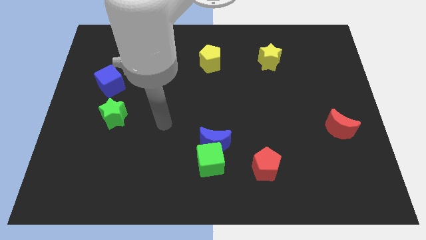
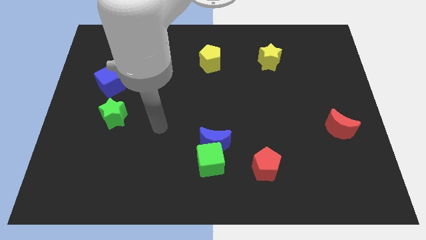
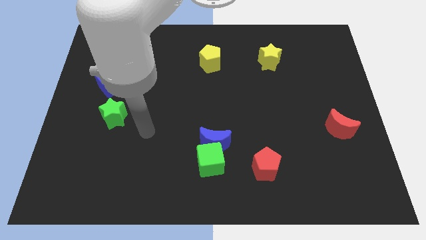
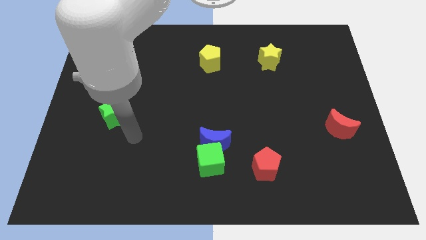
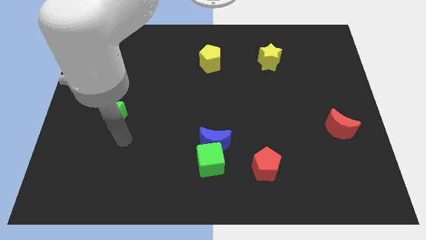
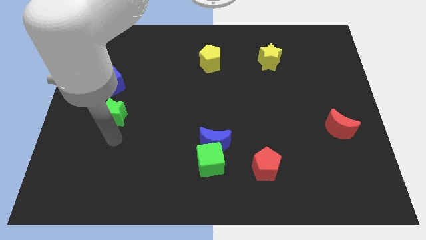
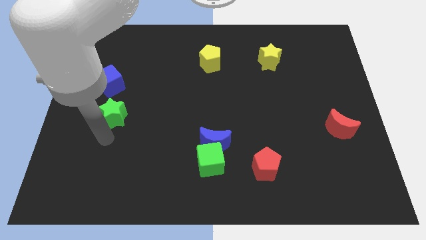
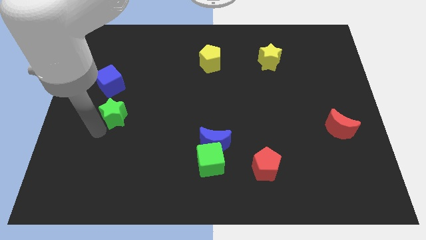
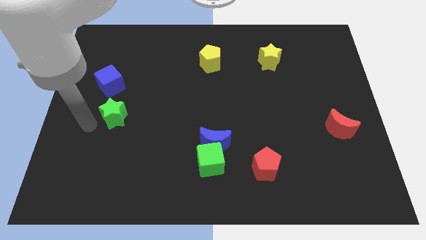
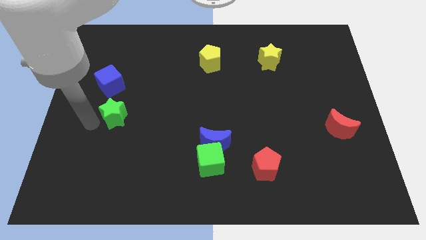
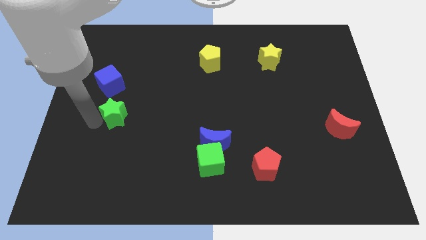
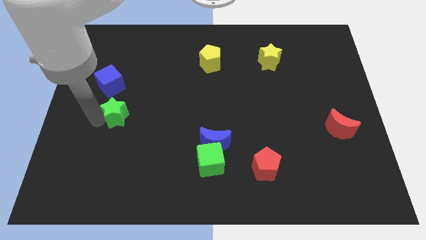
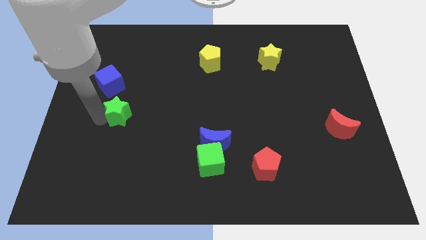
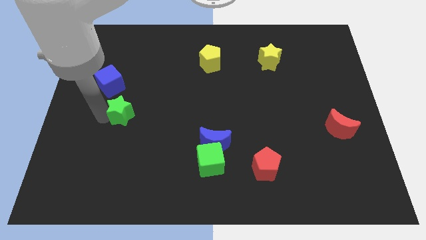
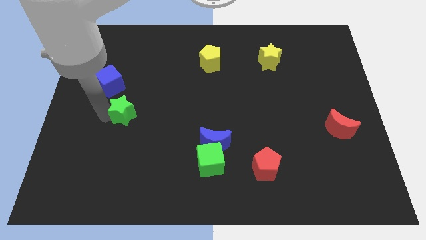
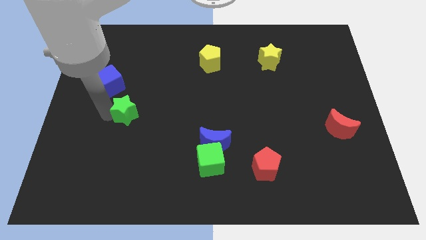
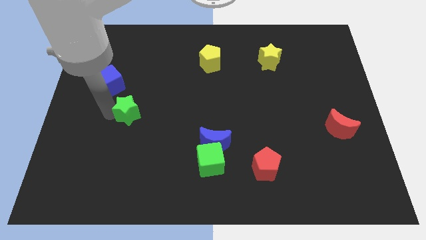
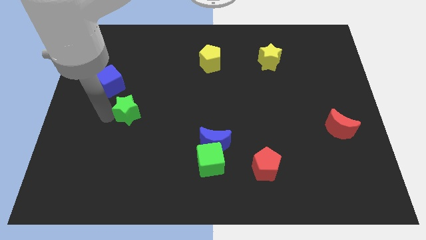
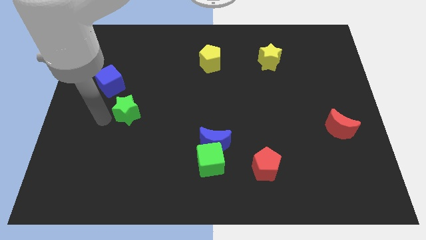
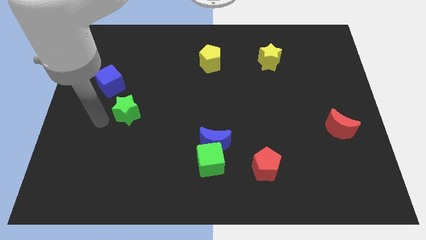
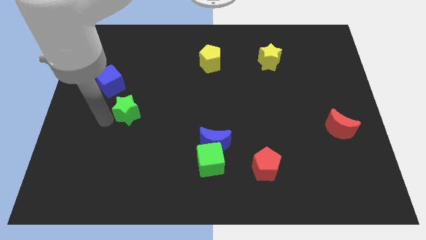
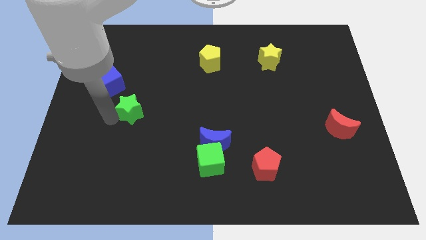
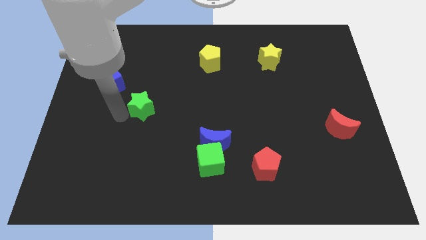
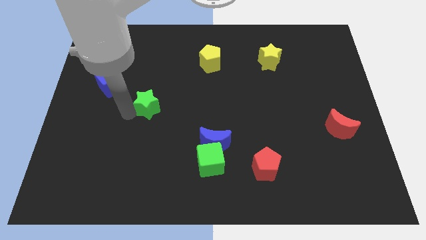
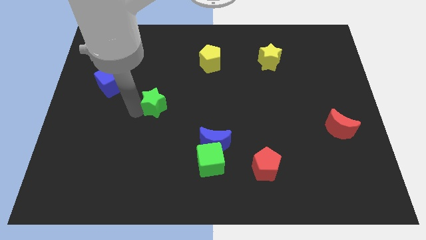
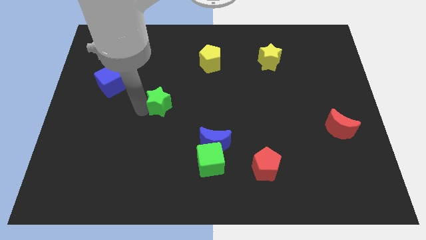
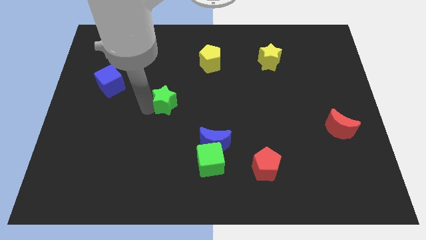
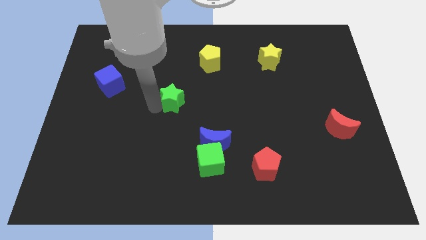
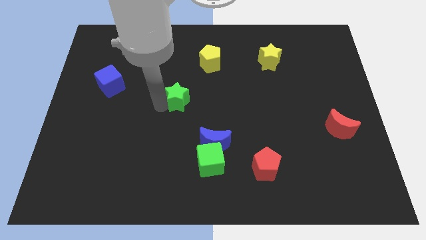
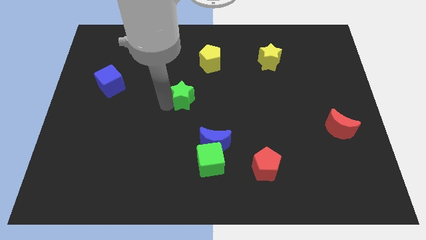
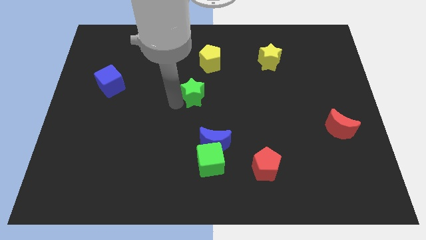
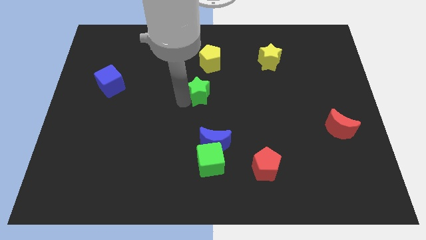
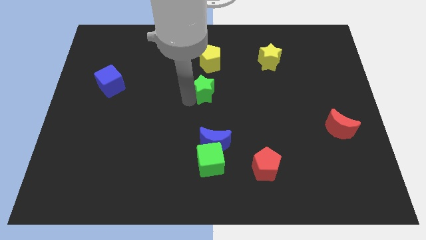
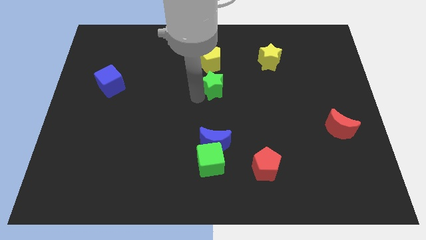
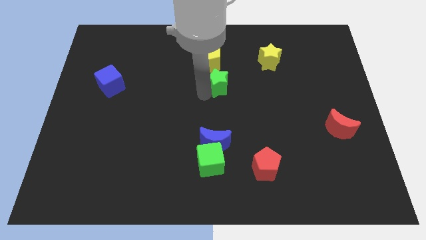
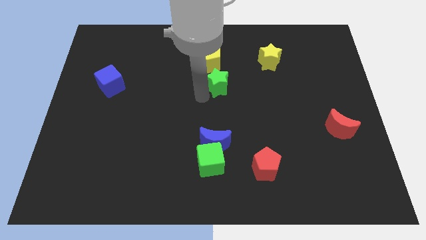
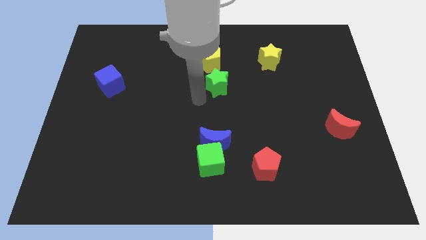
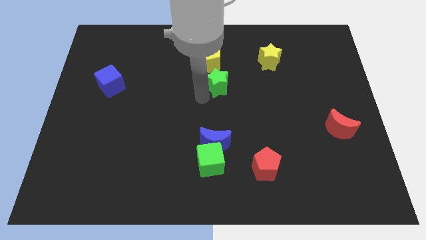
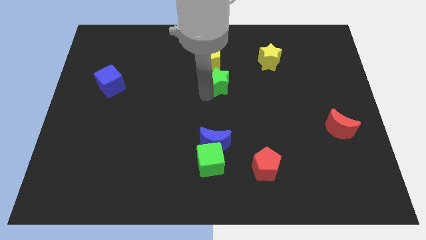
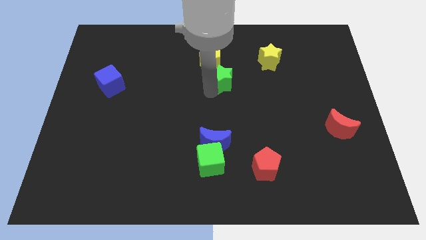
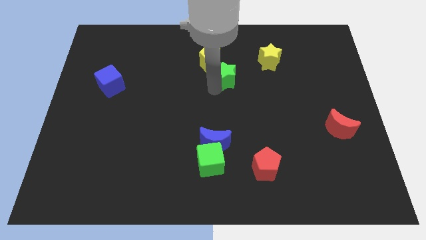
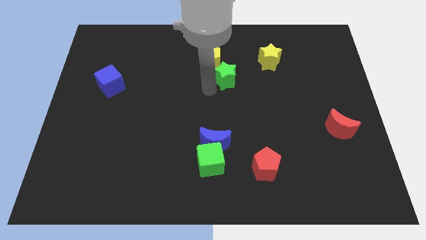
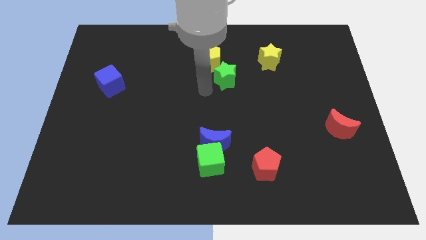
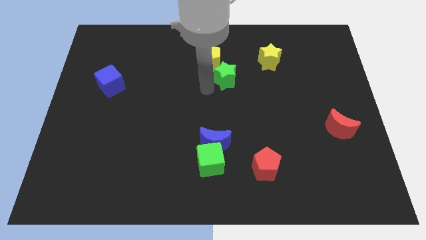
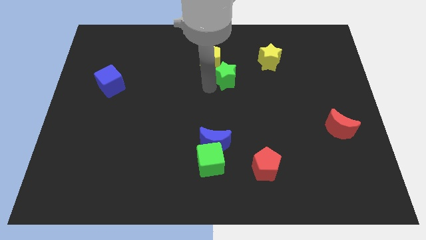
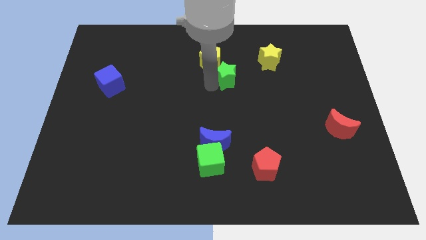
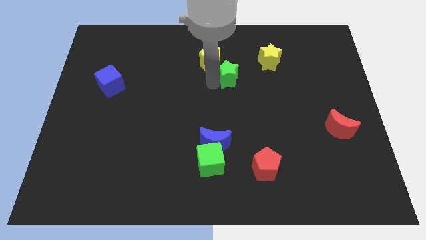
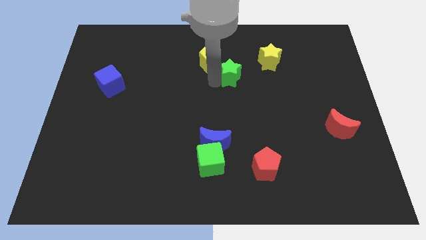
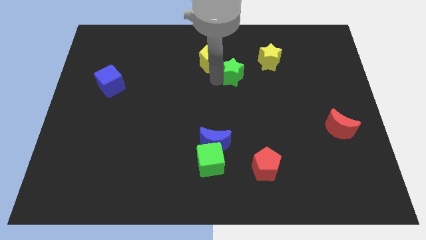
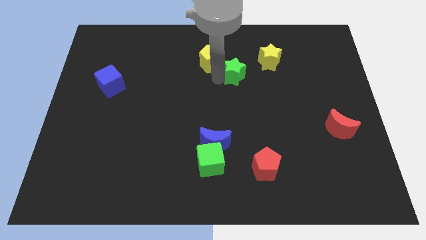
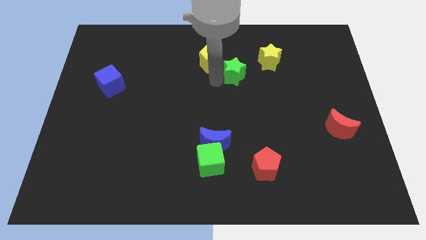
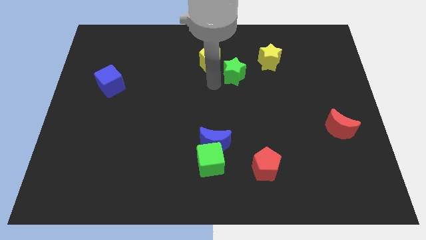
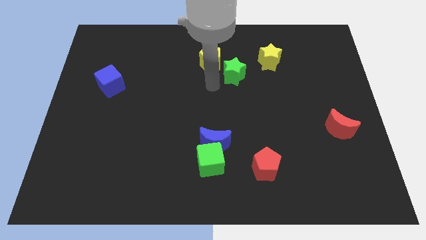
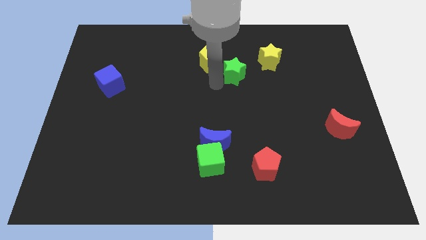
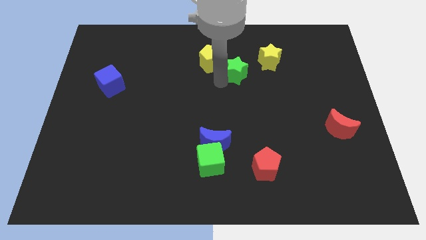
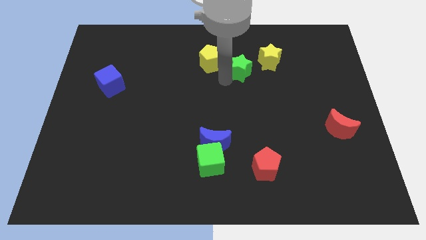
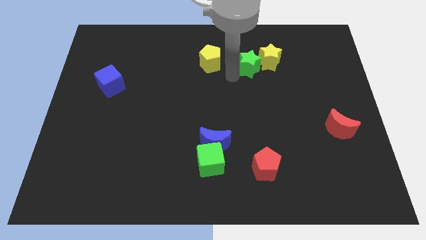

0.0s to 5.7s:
move the green star to the yellow star

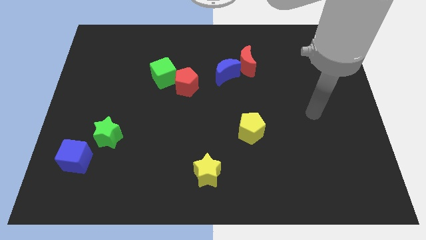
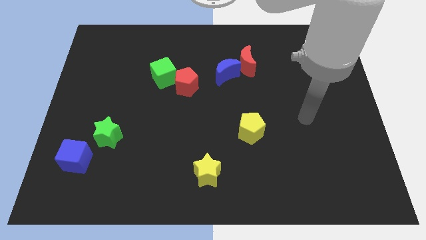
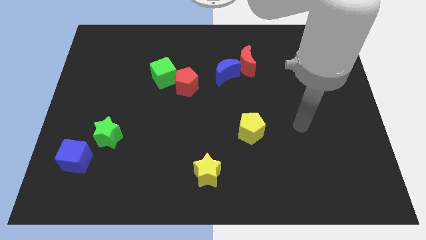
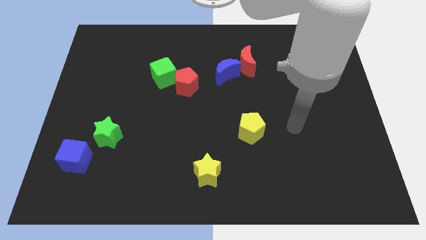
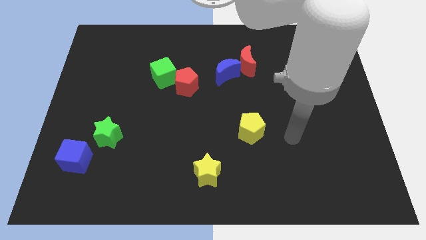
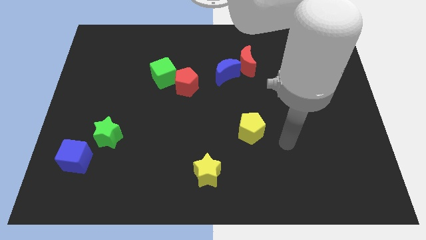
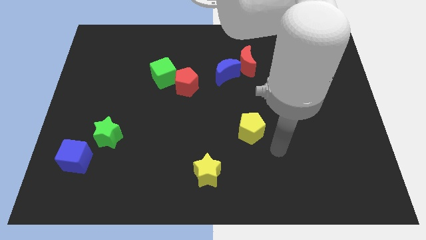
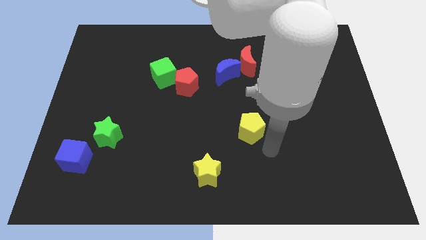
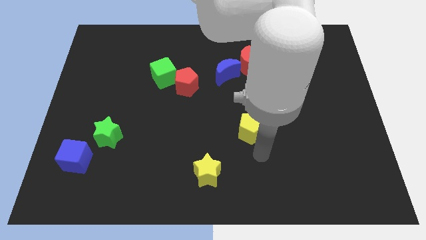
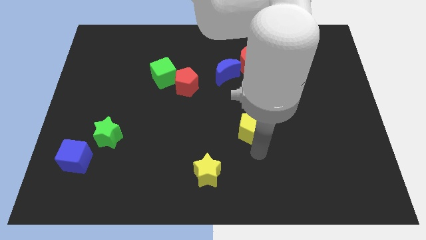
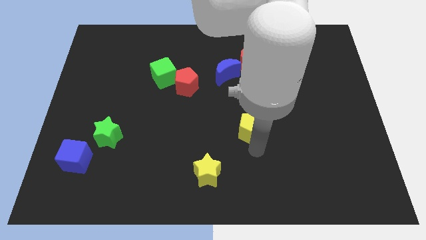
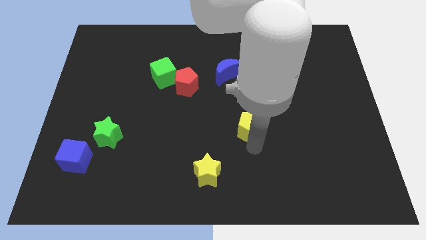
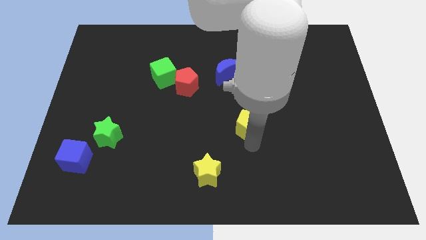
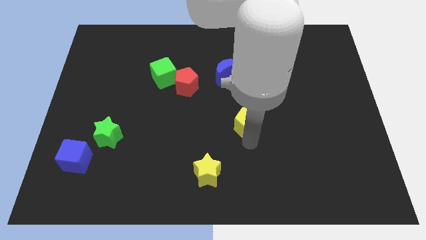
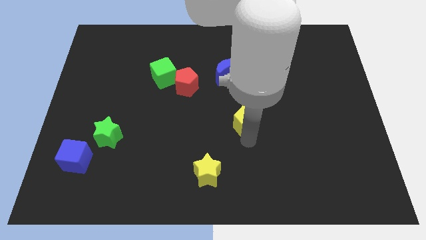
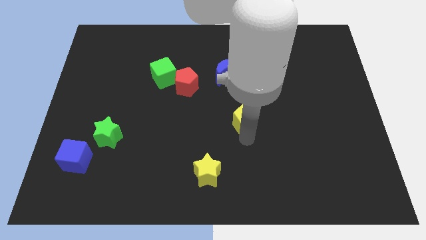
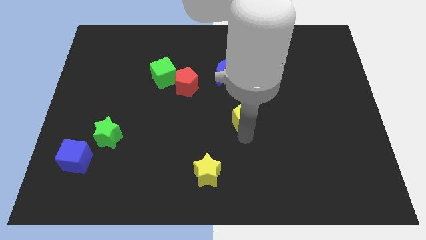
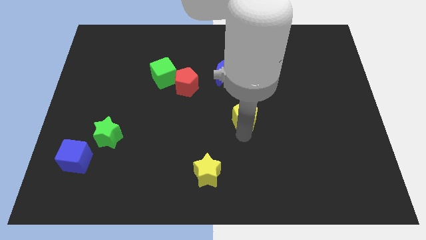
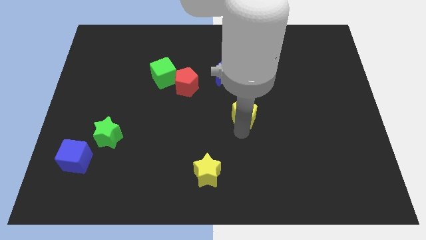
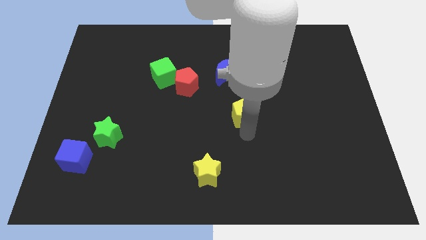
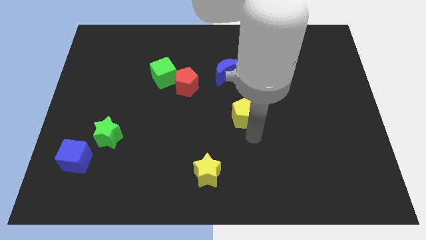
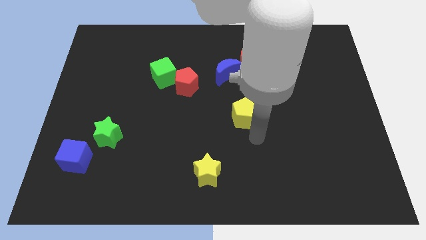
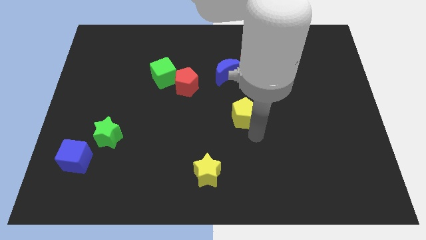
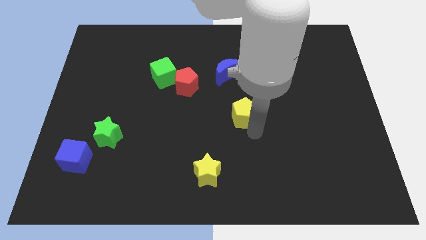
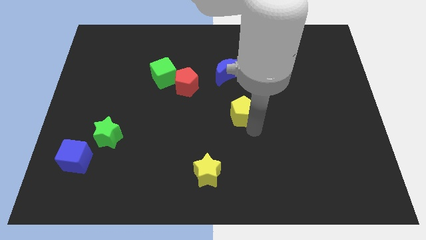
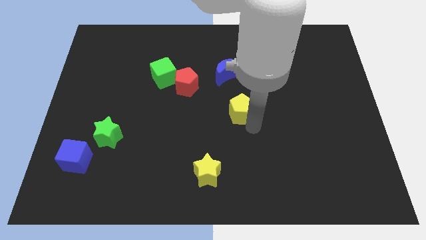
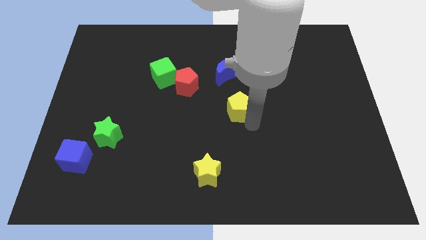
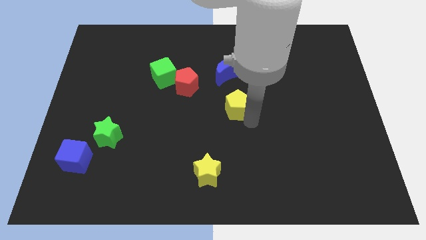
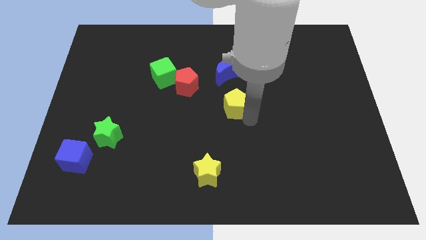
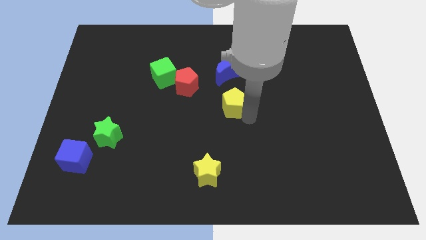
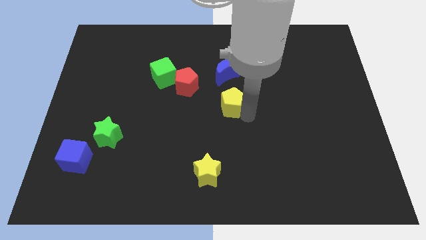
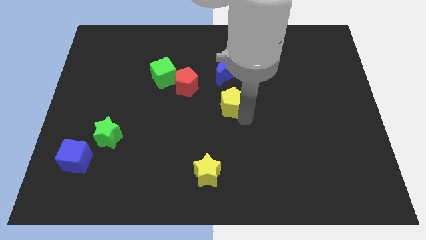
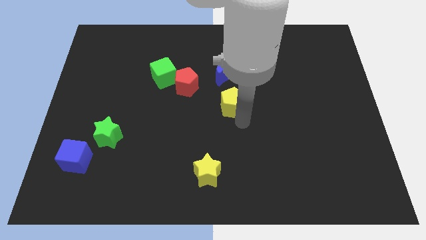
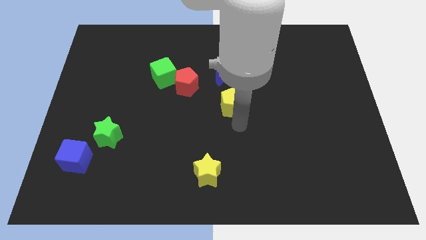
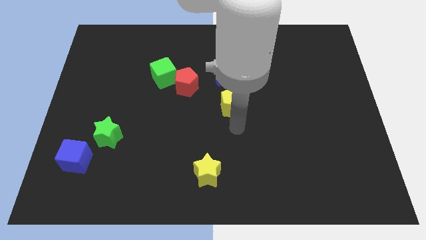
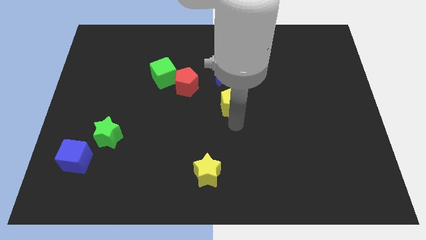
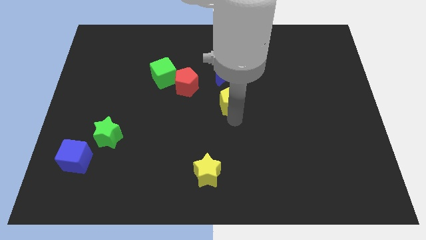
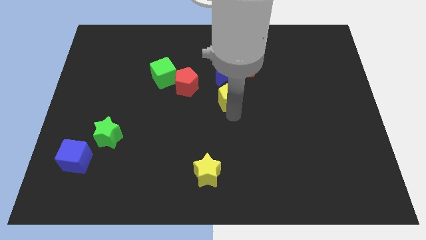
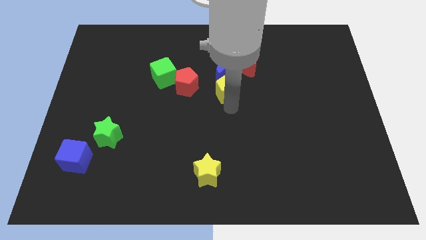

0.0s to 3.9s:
put the yellow pentagon to the blue moon
